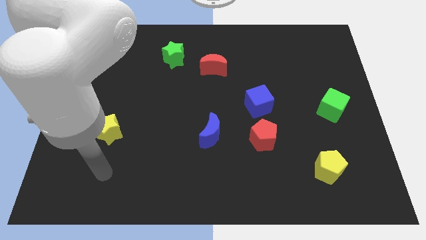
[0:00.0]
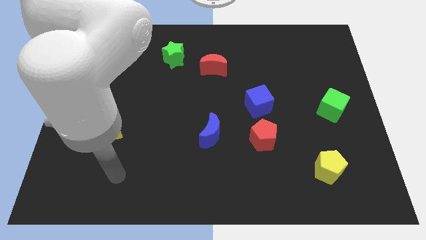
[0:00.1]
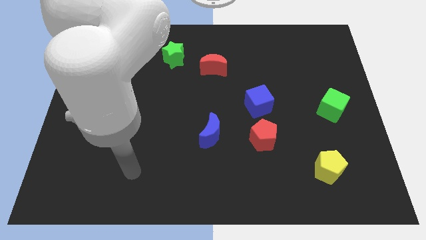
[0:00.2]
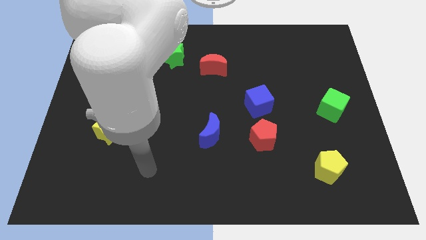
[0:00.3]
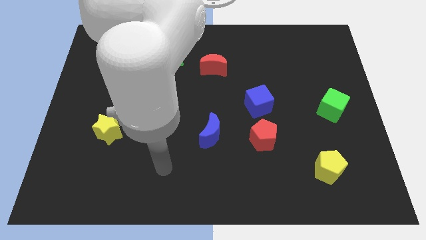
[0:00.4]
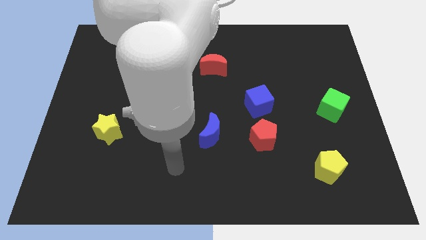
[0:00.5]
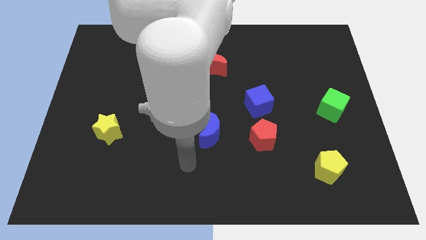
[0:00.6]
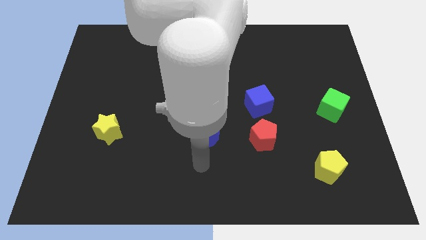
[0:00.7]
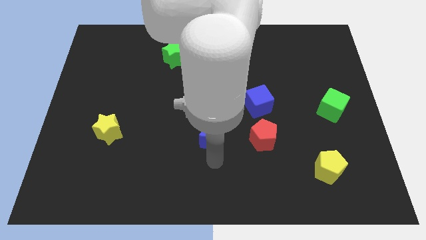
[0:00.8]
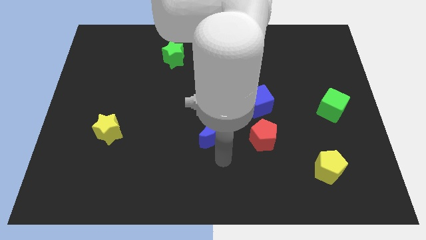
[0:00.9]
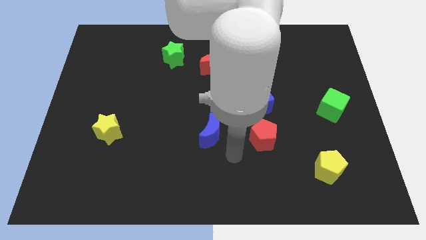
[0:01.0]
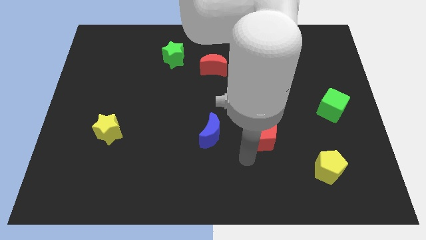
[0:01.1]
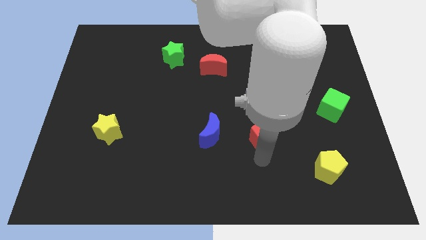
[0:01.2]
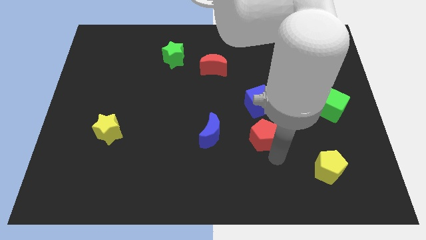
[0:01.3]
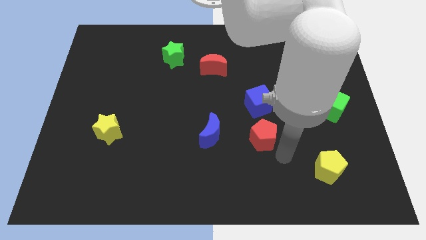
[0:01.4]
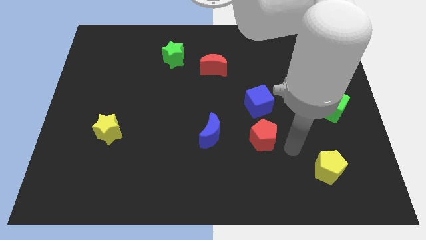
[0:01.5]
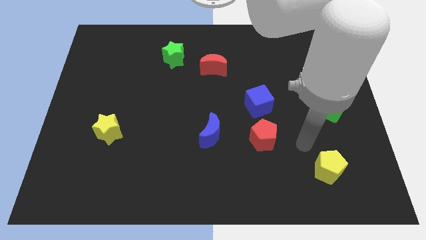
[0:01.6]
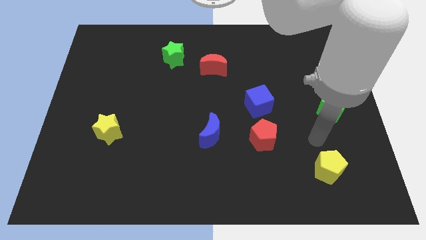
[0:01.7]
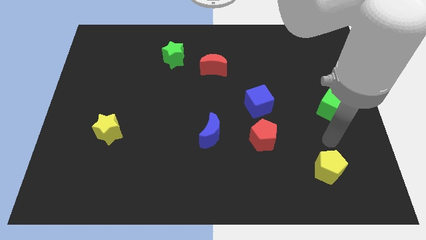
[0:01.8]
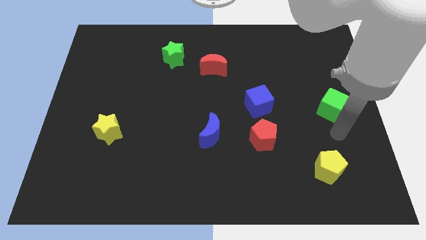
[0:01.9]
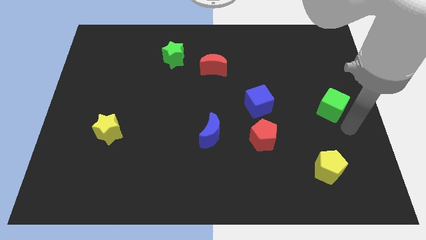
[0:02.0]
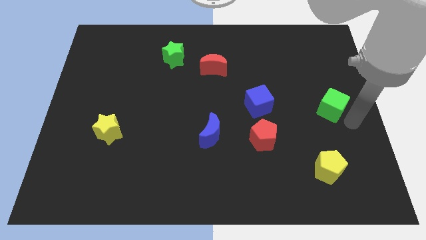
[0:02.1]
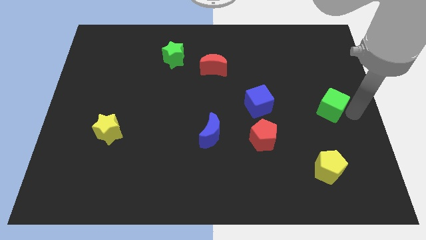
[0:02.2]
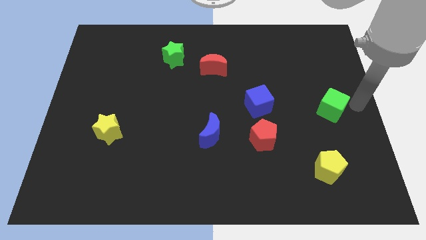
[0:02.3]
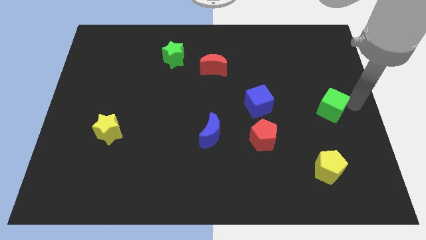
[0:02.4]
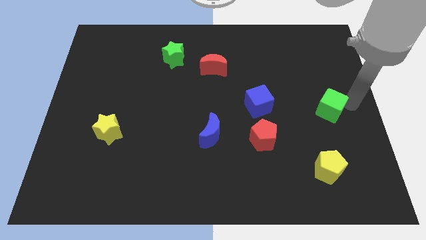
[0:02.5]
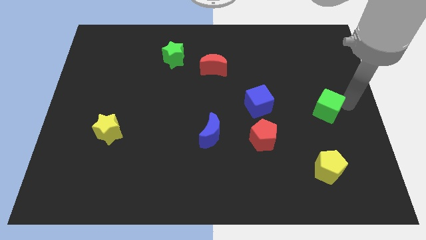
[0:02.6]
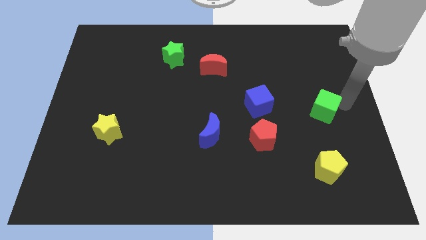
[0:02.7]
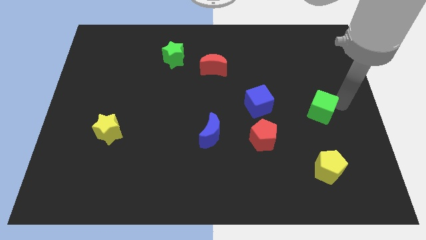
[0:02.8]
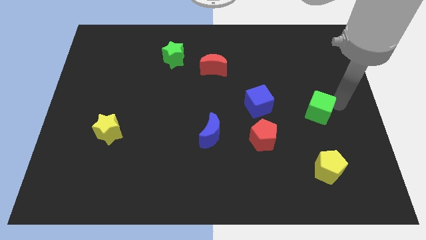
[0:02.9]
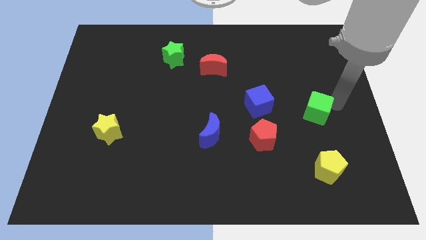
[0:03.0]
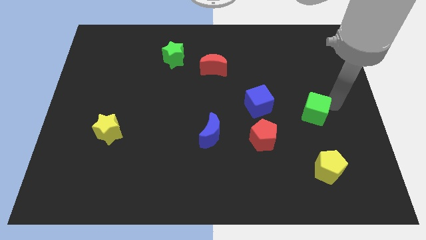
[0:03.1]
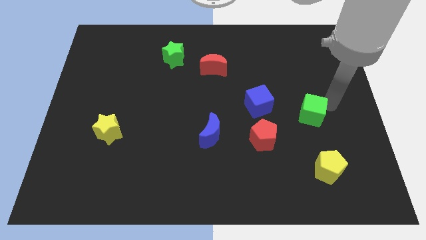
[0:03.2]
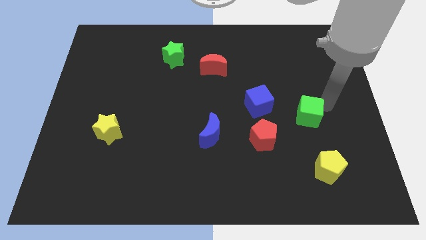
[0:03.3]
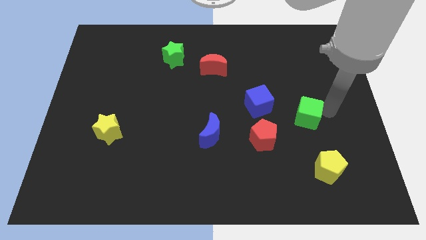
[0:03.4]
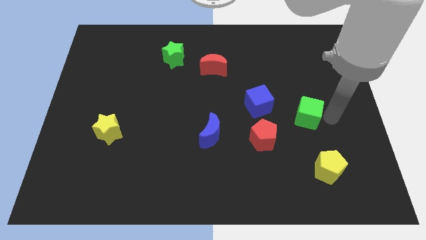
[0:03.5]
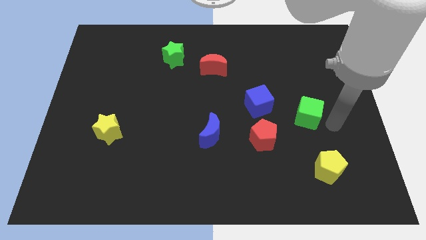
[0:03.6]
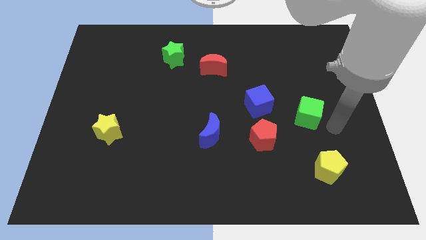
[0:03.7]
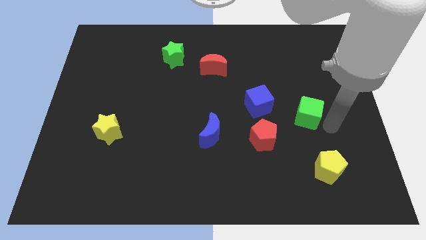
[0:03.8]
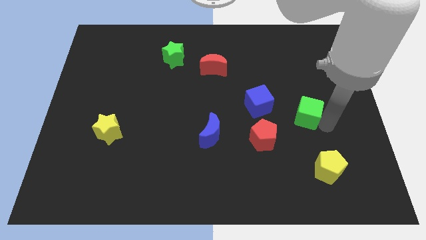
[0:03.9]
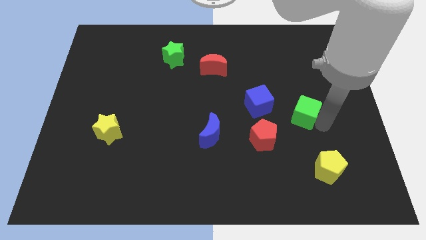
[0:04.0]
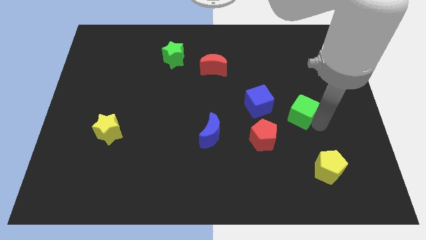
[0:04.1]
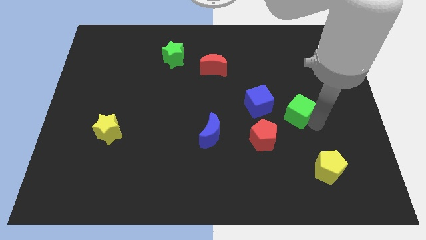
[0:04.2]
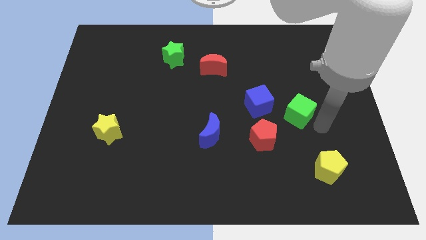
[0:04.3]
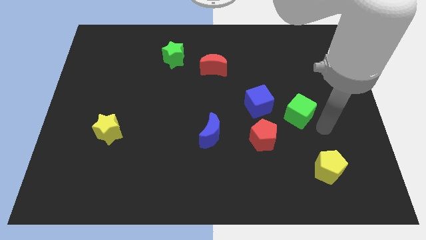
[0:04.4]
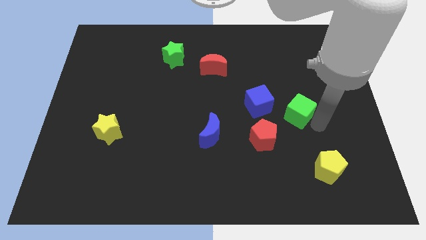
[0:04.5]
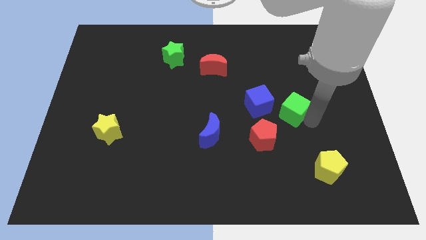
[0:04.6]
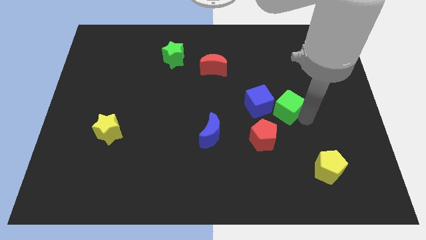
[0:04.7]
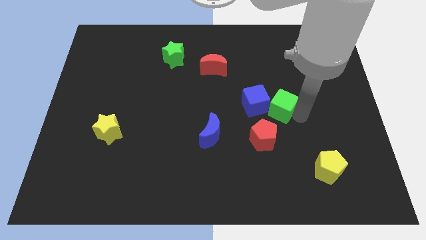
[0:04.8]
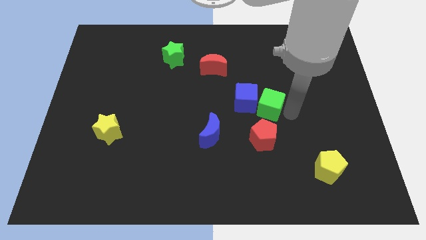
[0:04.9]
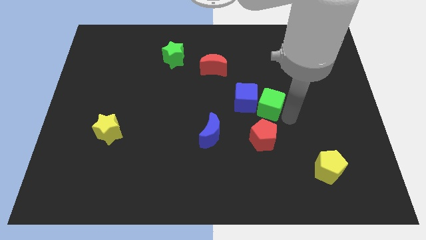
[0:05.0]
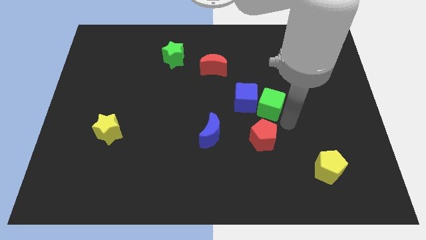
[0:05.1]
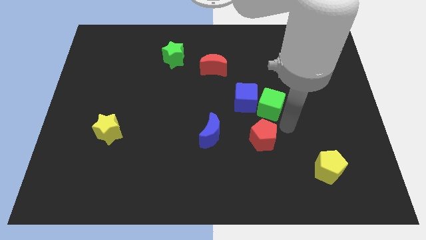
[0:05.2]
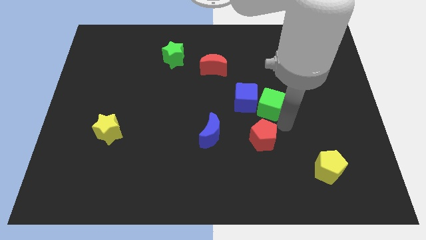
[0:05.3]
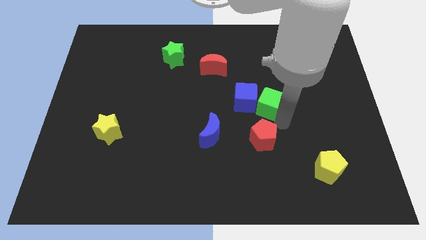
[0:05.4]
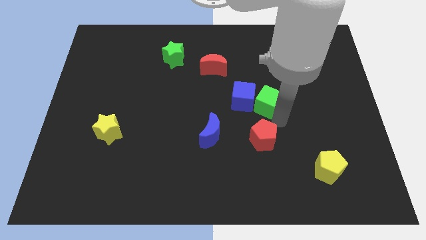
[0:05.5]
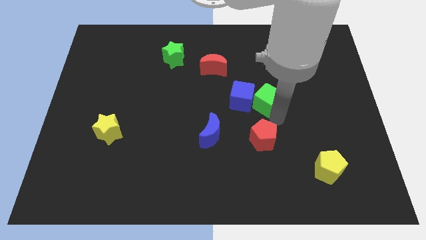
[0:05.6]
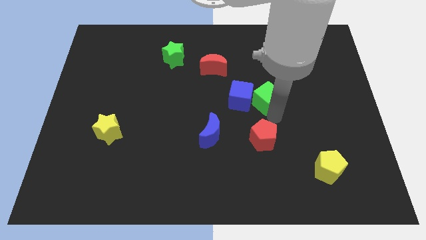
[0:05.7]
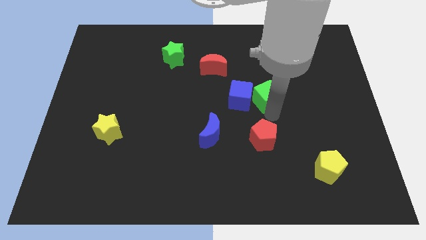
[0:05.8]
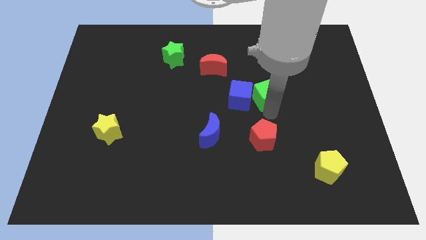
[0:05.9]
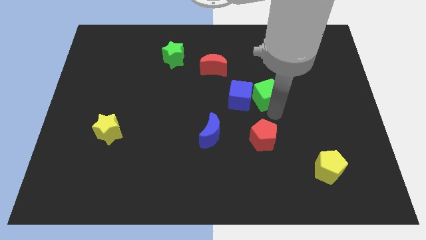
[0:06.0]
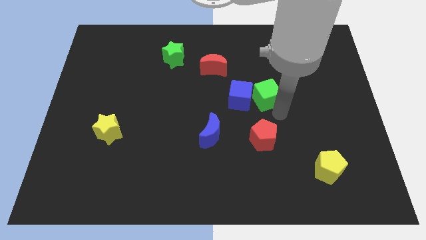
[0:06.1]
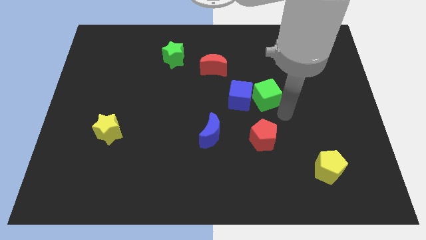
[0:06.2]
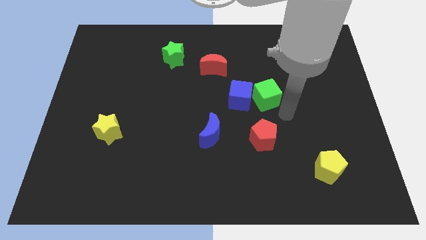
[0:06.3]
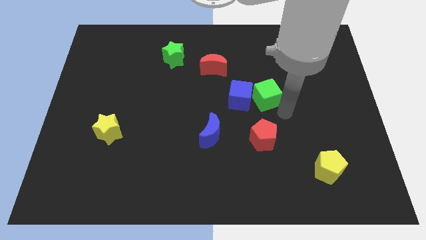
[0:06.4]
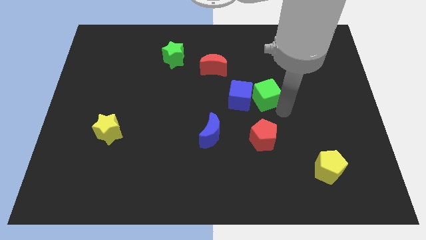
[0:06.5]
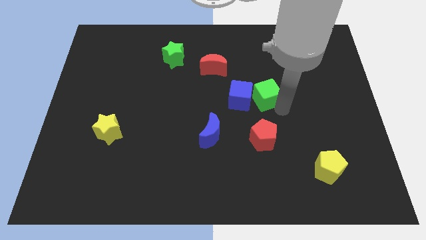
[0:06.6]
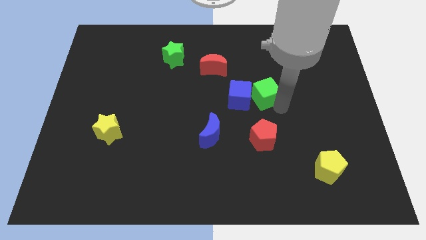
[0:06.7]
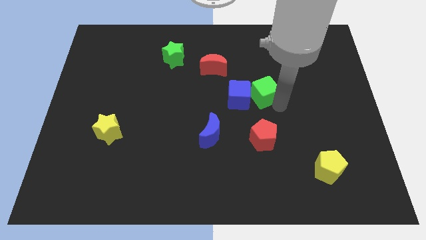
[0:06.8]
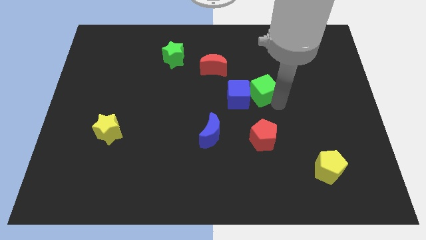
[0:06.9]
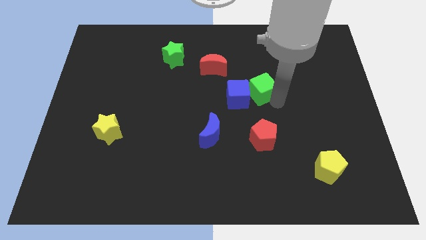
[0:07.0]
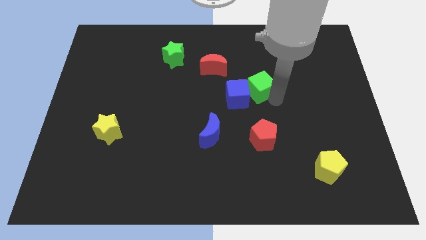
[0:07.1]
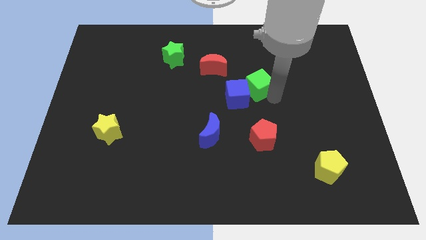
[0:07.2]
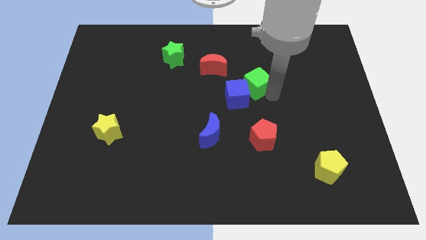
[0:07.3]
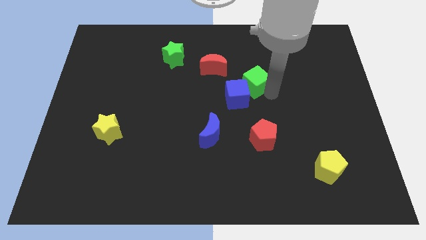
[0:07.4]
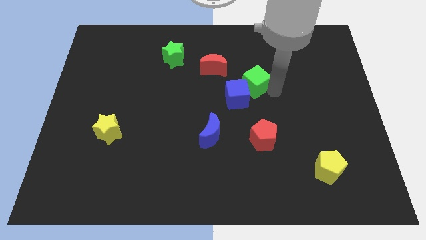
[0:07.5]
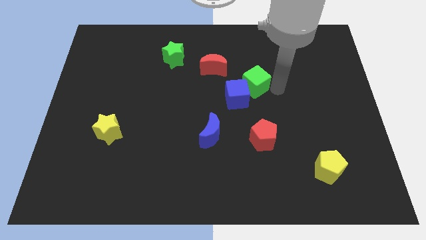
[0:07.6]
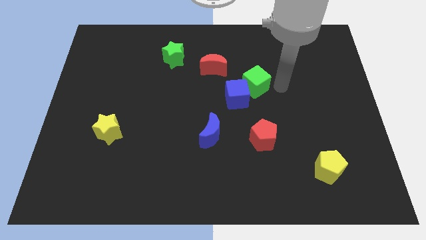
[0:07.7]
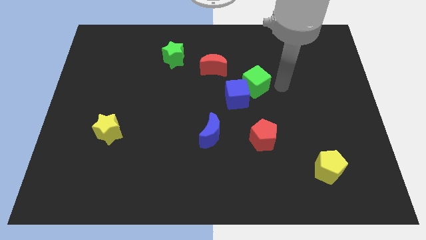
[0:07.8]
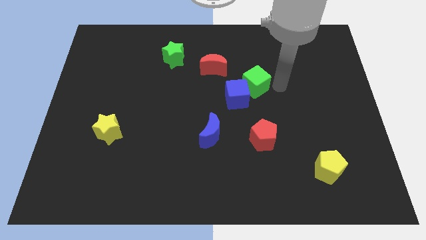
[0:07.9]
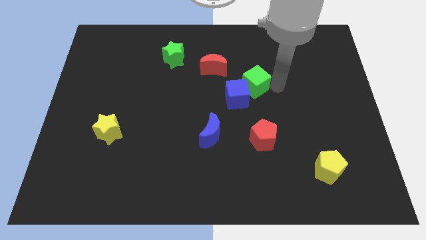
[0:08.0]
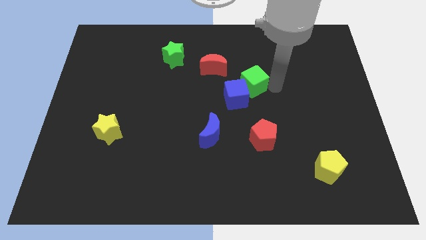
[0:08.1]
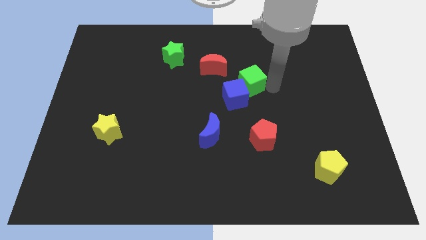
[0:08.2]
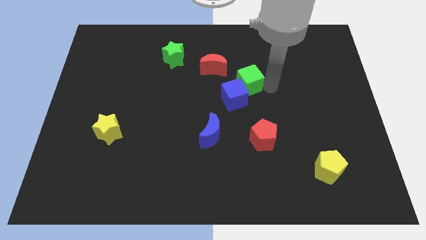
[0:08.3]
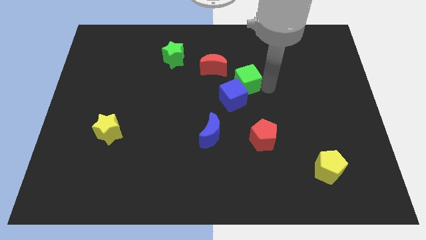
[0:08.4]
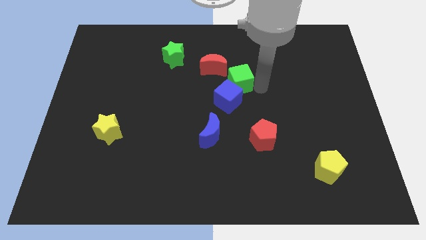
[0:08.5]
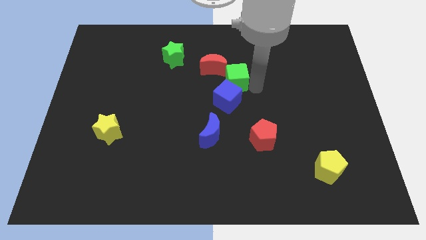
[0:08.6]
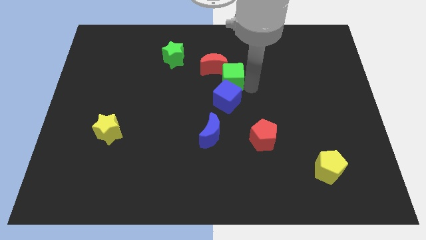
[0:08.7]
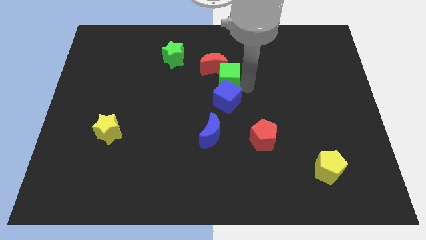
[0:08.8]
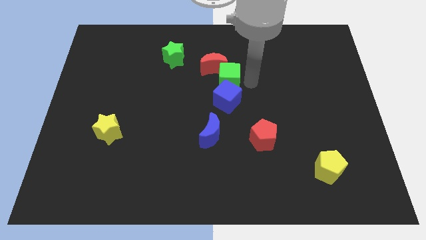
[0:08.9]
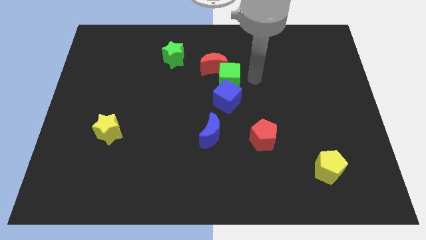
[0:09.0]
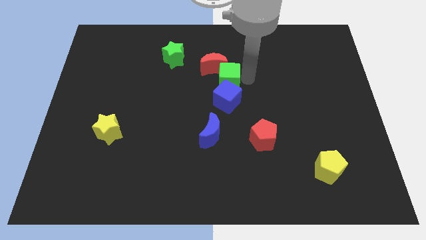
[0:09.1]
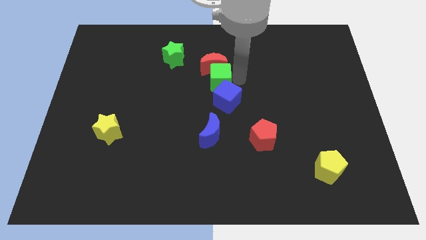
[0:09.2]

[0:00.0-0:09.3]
put the green cube diagonally down and to the left of the red moon
